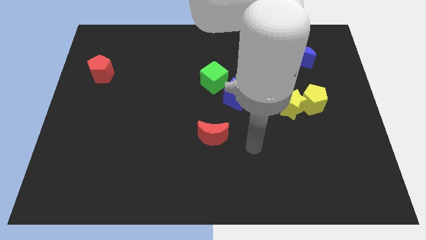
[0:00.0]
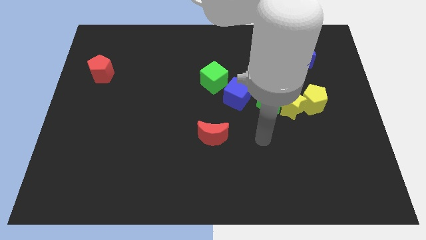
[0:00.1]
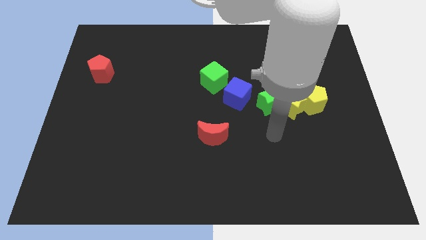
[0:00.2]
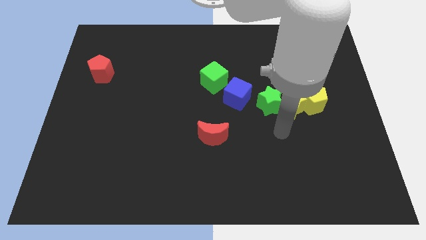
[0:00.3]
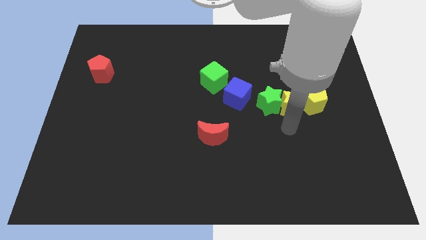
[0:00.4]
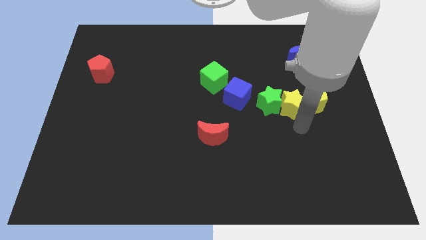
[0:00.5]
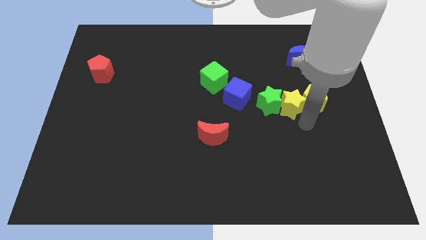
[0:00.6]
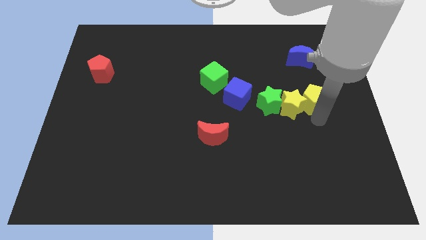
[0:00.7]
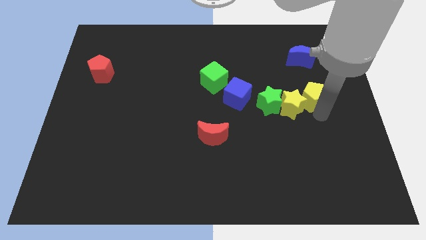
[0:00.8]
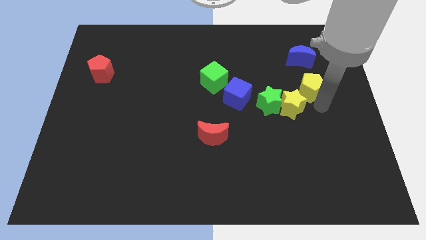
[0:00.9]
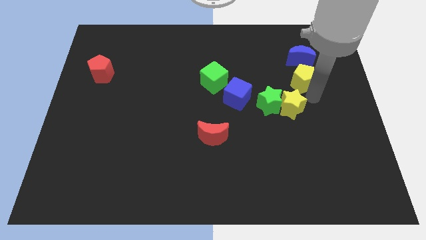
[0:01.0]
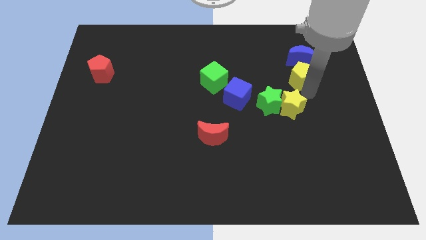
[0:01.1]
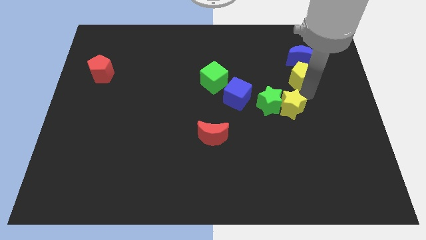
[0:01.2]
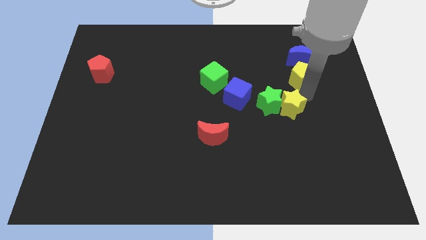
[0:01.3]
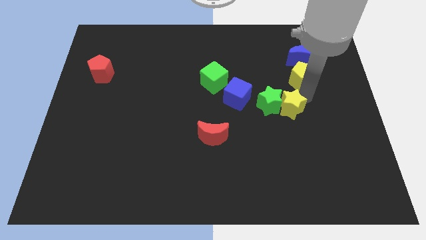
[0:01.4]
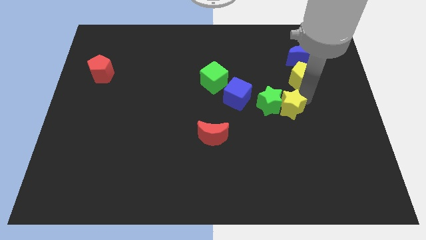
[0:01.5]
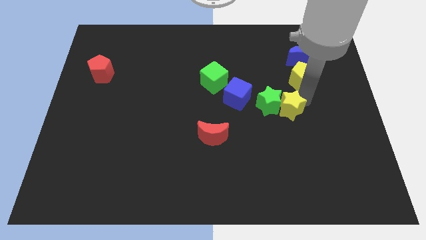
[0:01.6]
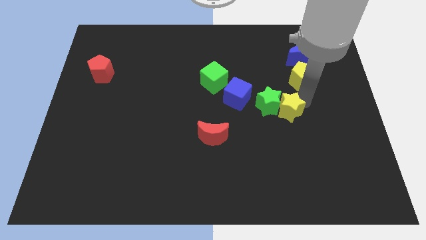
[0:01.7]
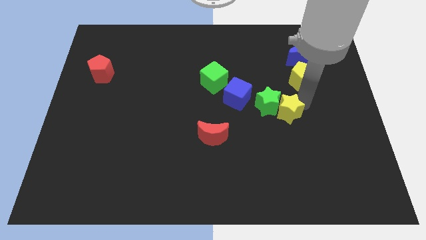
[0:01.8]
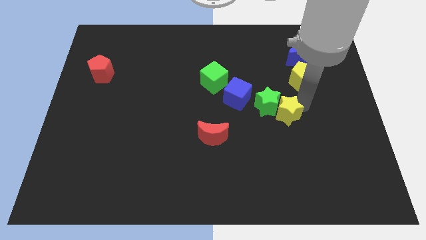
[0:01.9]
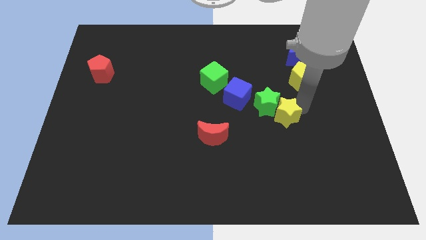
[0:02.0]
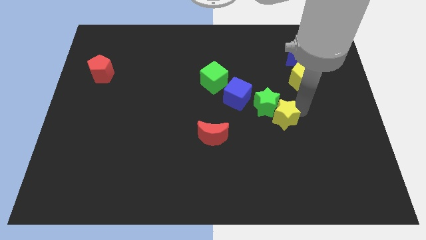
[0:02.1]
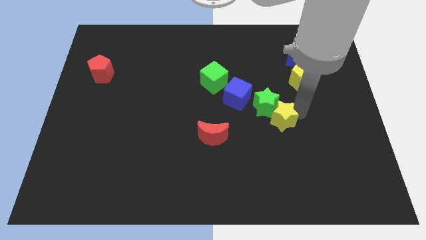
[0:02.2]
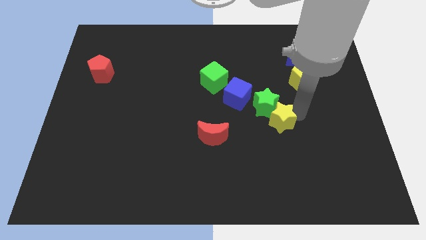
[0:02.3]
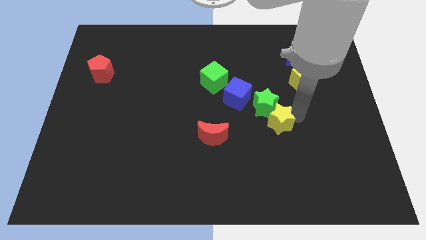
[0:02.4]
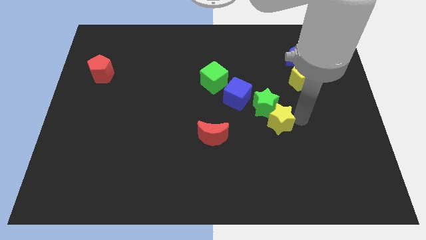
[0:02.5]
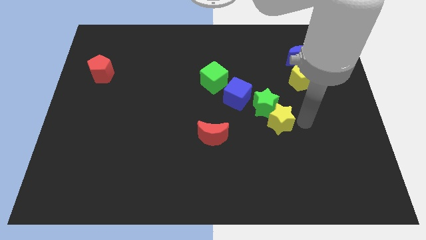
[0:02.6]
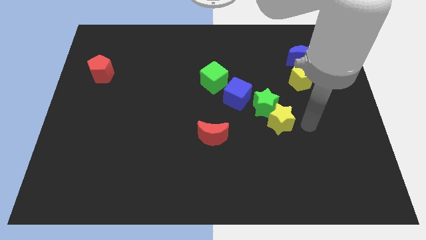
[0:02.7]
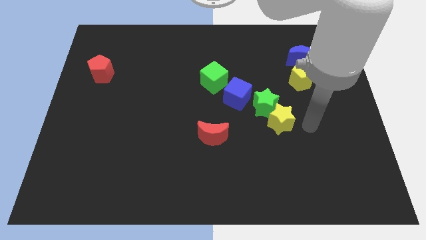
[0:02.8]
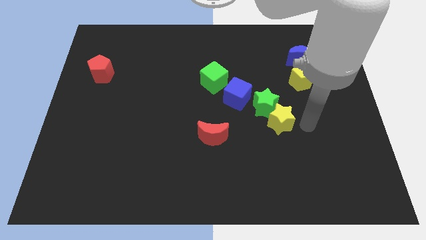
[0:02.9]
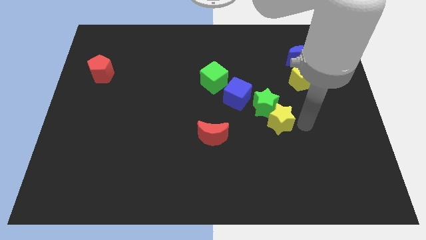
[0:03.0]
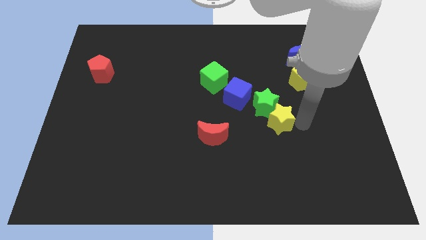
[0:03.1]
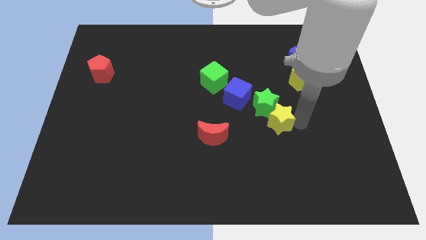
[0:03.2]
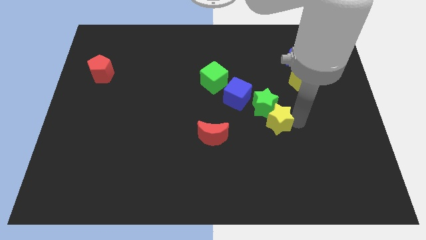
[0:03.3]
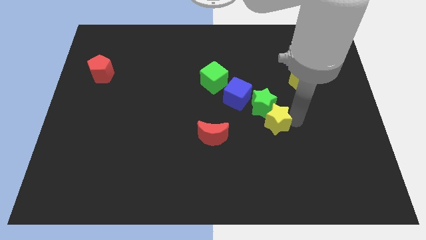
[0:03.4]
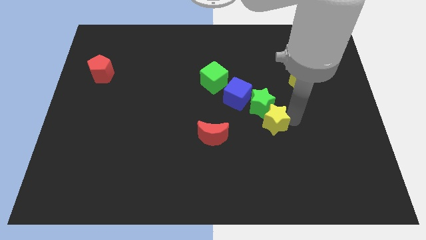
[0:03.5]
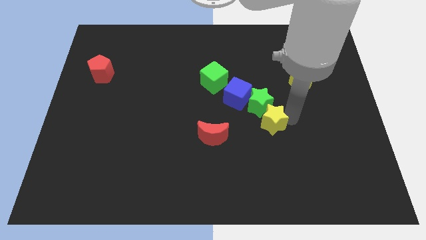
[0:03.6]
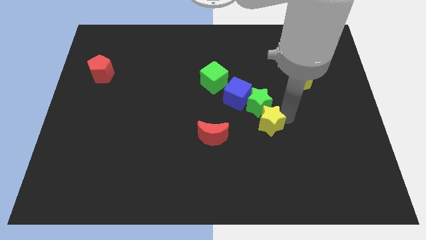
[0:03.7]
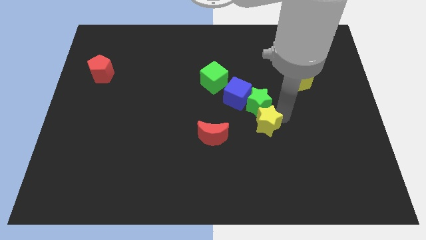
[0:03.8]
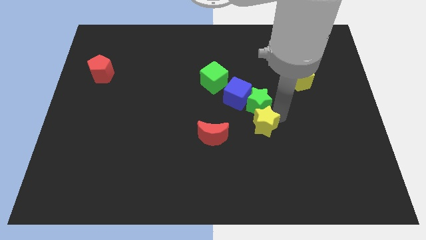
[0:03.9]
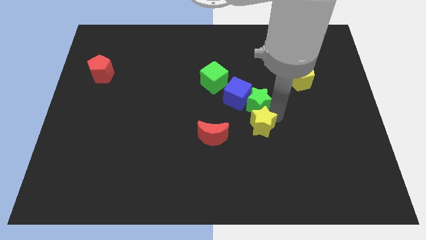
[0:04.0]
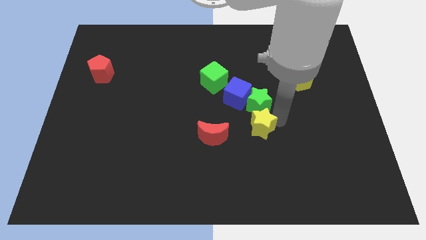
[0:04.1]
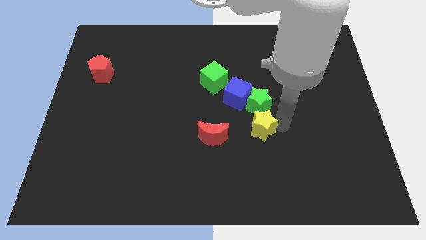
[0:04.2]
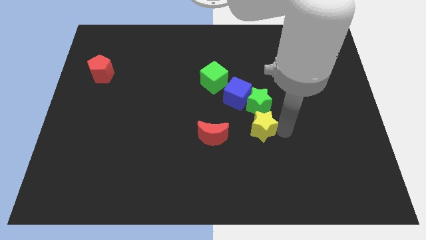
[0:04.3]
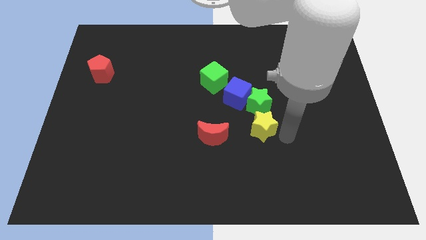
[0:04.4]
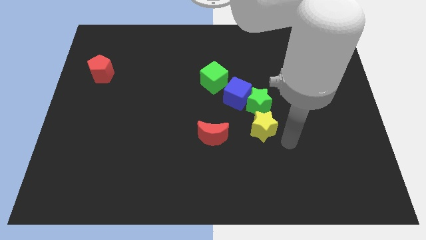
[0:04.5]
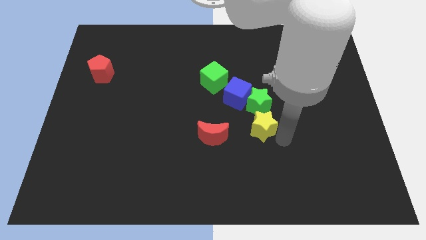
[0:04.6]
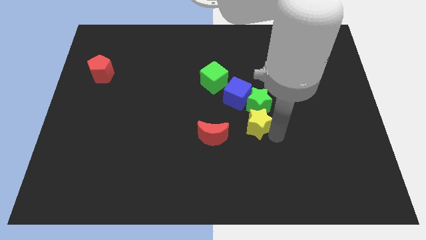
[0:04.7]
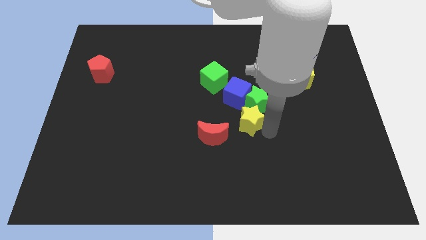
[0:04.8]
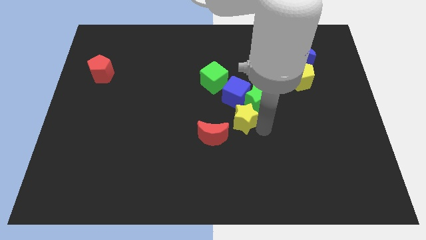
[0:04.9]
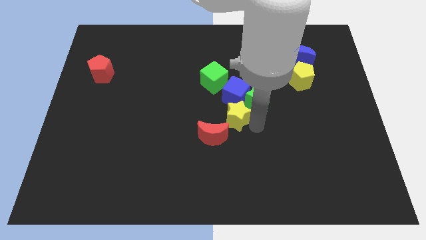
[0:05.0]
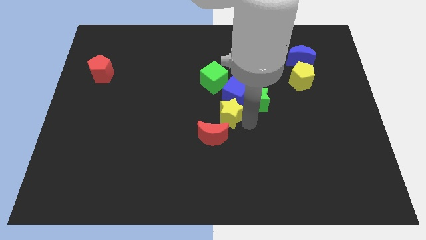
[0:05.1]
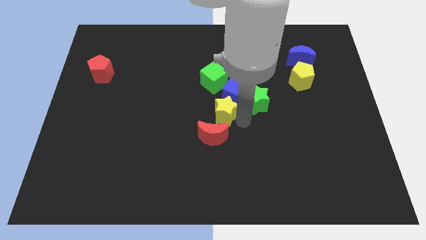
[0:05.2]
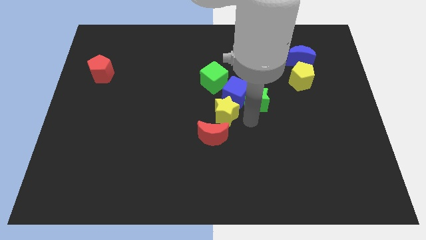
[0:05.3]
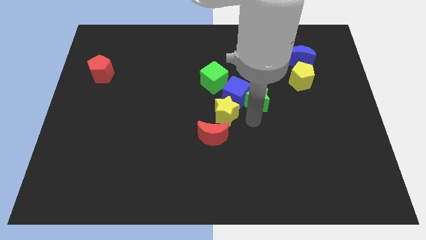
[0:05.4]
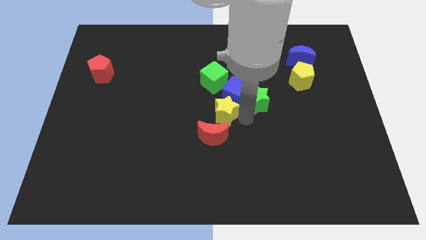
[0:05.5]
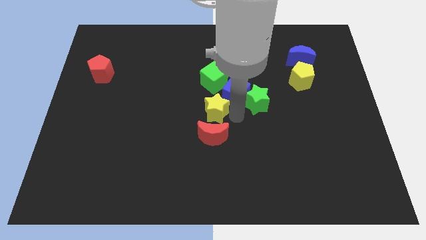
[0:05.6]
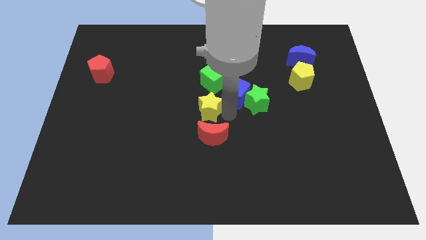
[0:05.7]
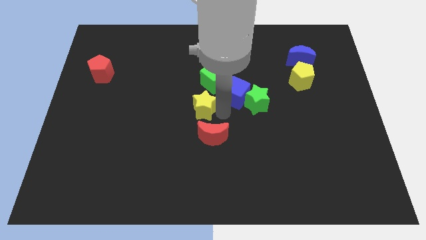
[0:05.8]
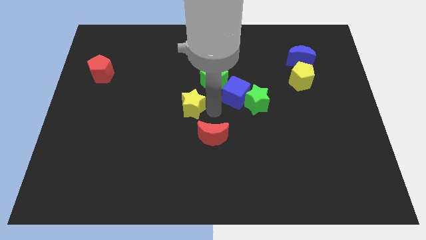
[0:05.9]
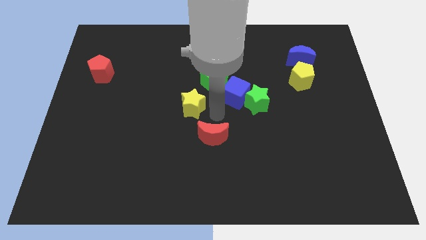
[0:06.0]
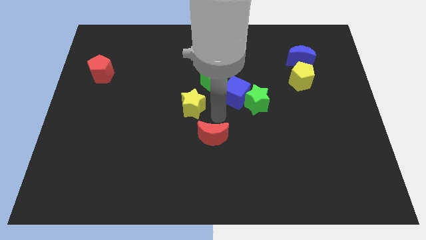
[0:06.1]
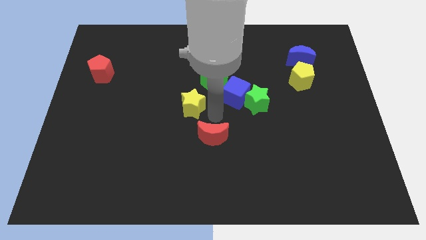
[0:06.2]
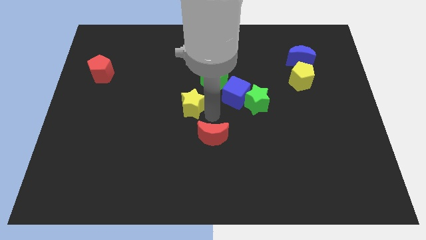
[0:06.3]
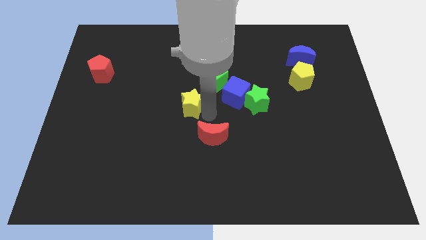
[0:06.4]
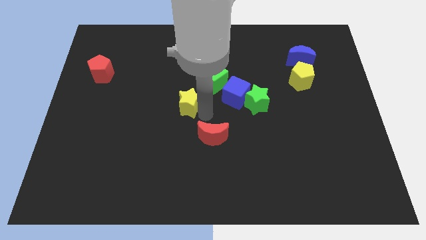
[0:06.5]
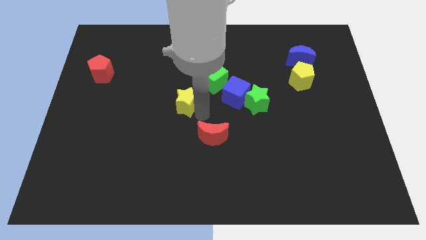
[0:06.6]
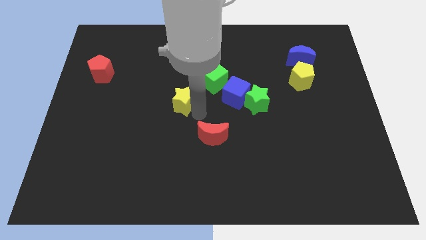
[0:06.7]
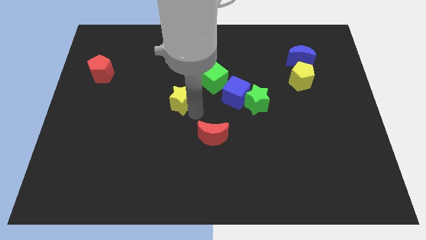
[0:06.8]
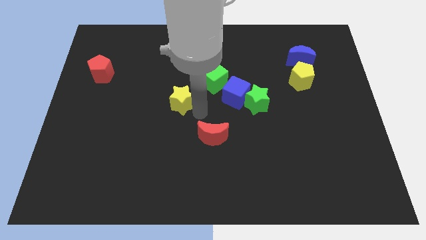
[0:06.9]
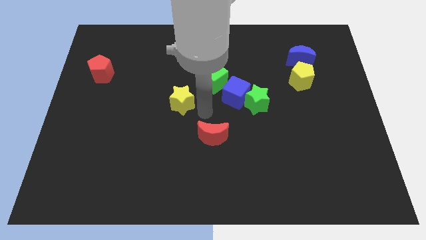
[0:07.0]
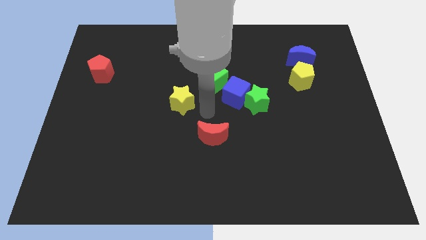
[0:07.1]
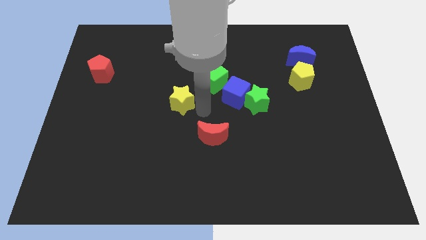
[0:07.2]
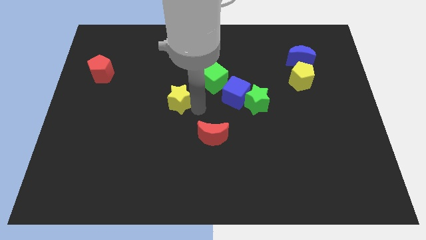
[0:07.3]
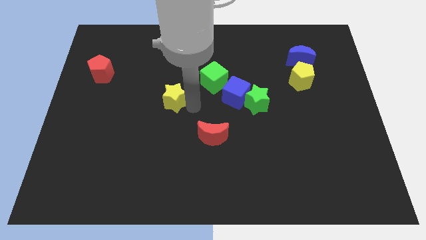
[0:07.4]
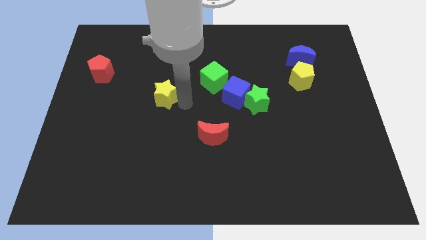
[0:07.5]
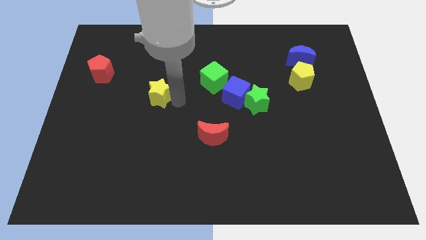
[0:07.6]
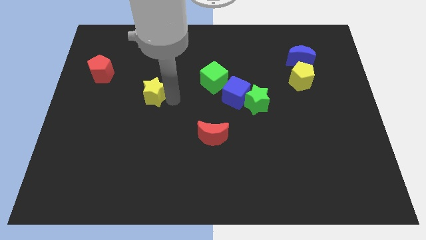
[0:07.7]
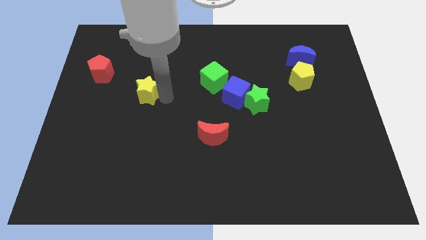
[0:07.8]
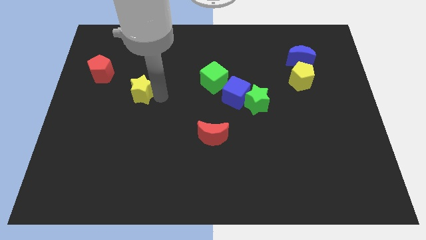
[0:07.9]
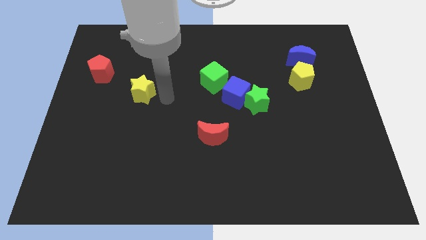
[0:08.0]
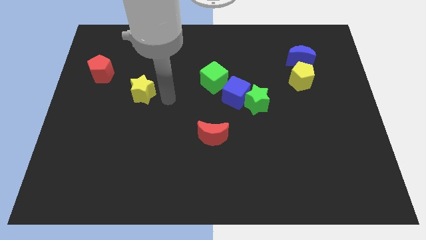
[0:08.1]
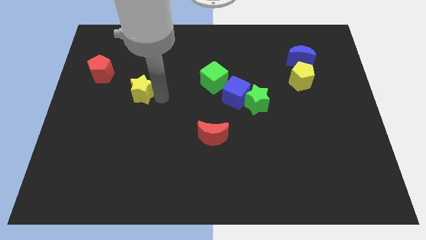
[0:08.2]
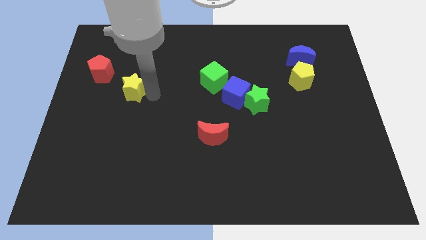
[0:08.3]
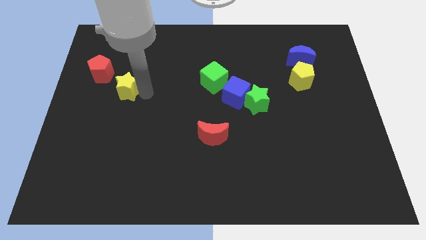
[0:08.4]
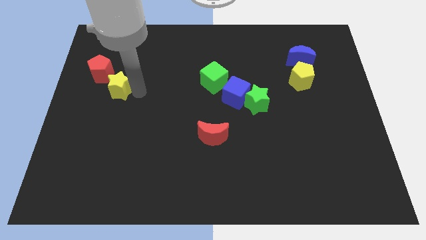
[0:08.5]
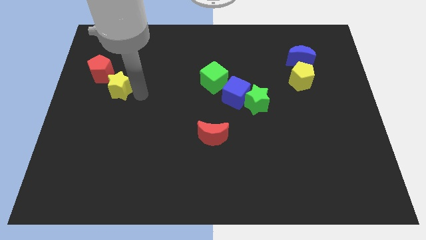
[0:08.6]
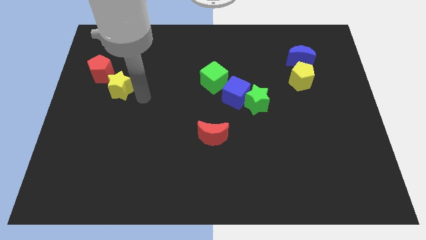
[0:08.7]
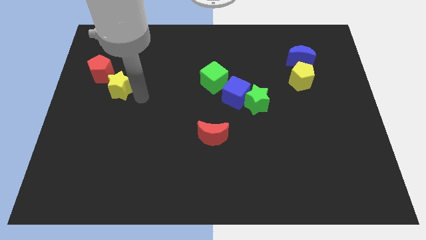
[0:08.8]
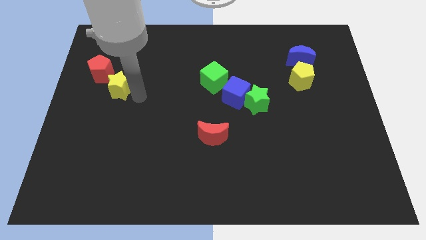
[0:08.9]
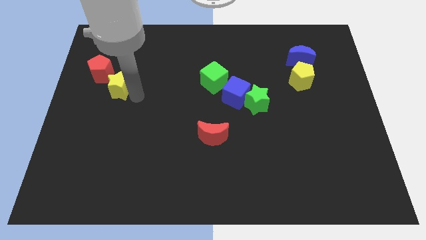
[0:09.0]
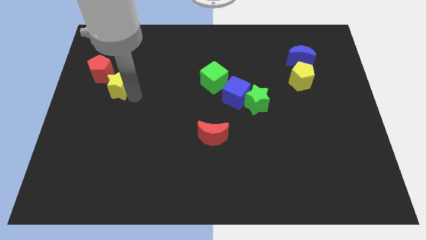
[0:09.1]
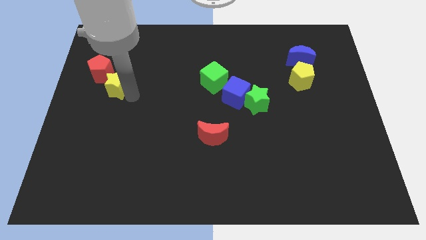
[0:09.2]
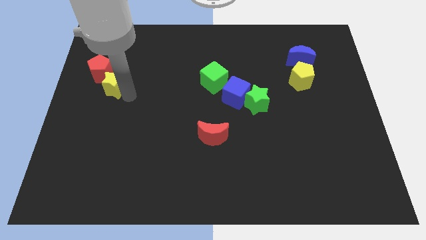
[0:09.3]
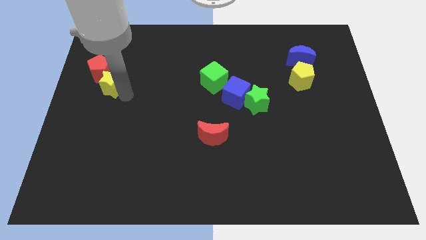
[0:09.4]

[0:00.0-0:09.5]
move the yellow star towards the red pentagon
